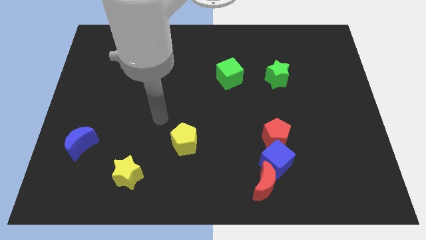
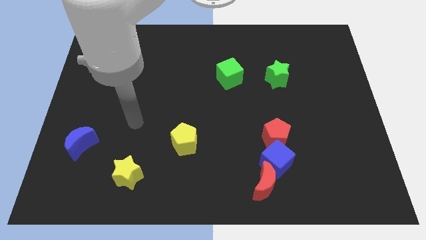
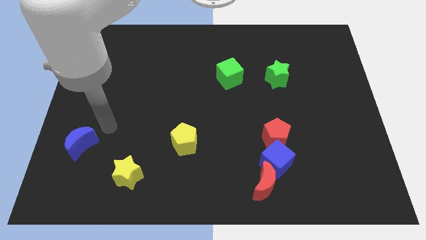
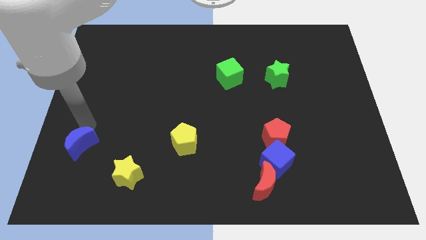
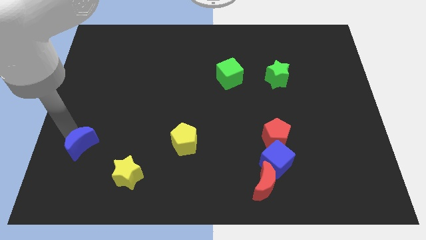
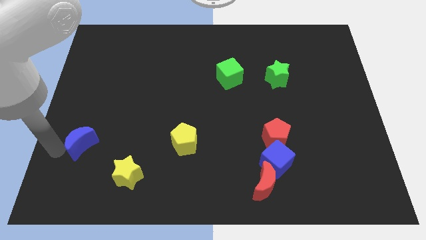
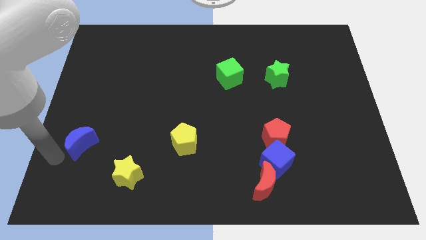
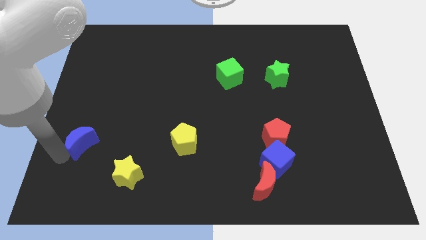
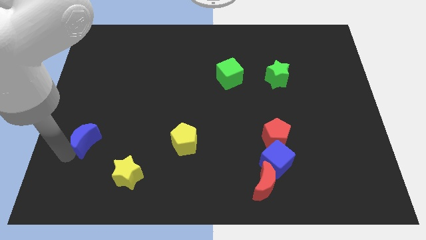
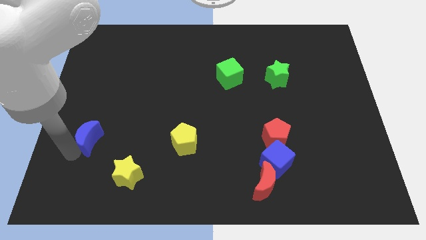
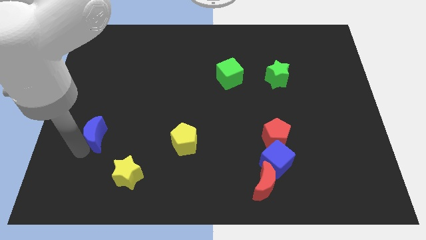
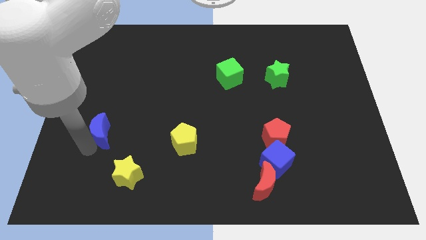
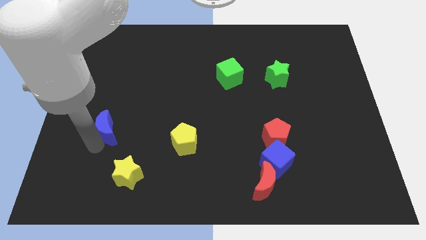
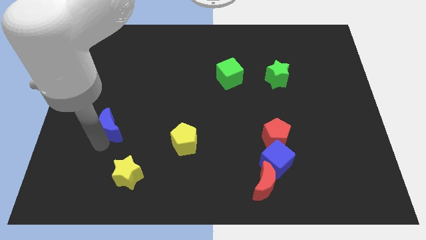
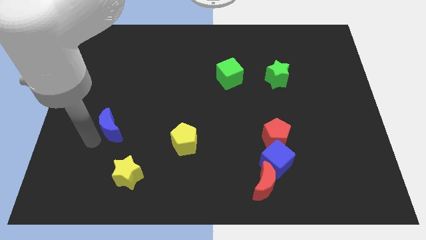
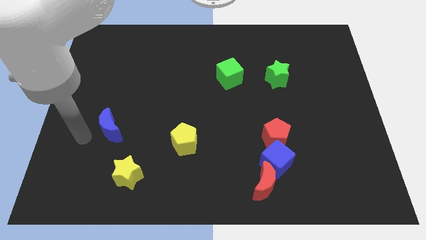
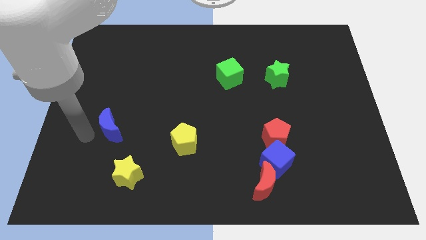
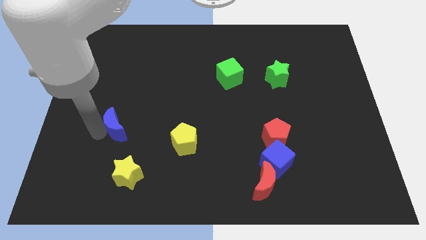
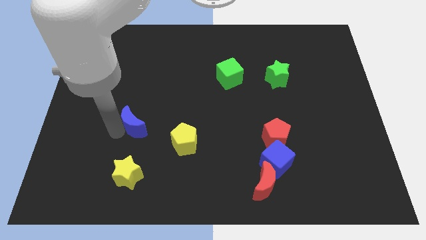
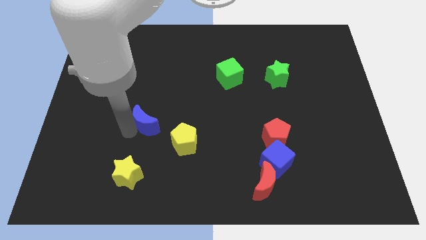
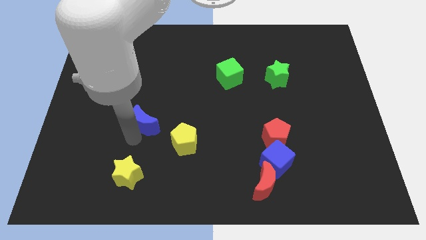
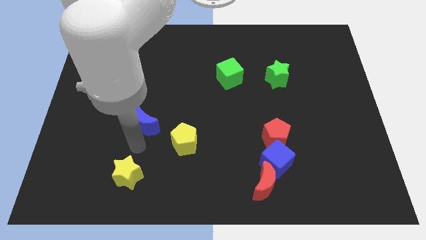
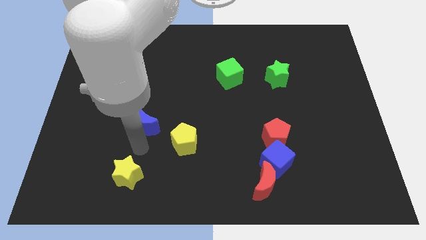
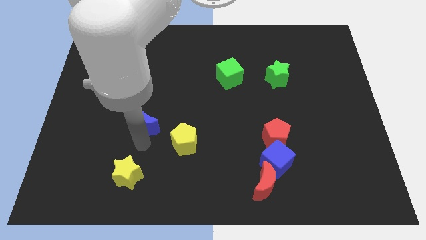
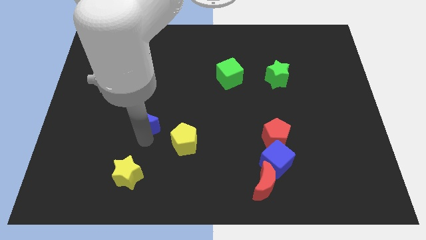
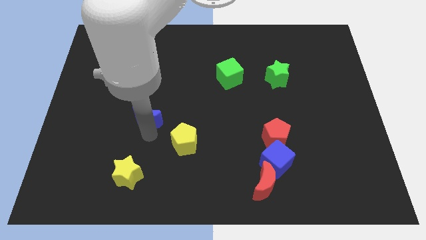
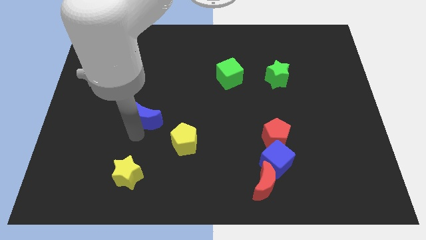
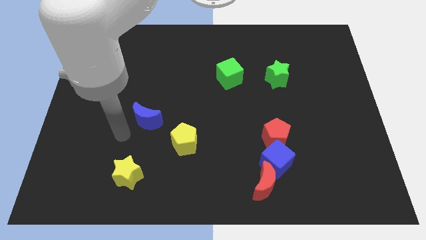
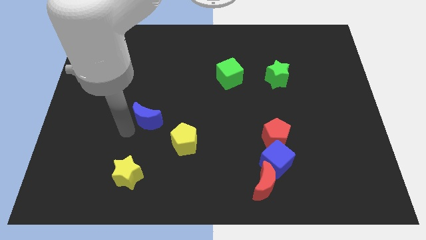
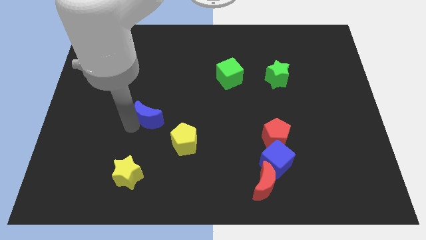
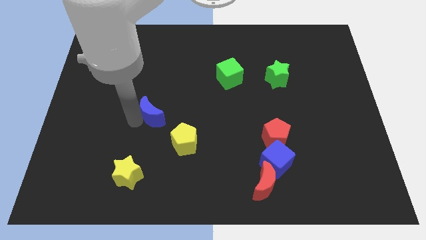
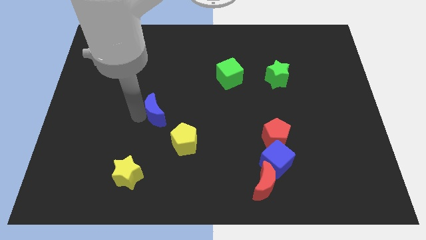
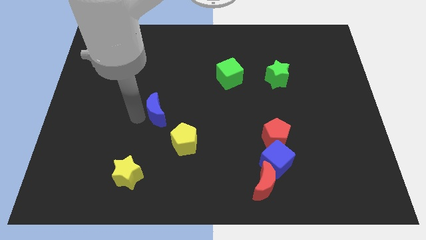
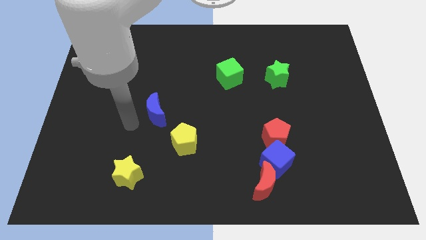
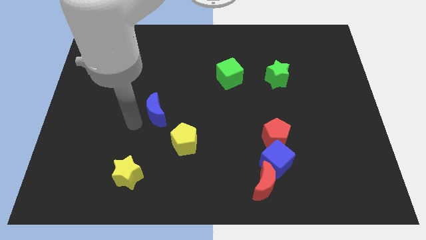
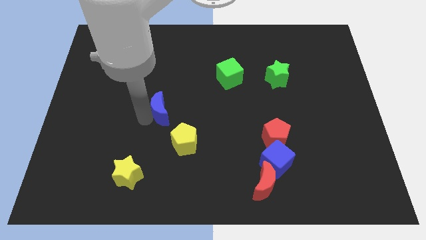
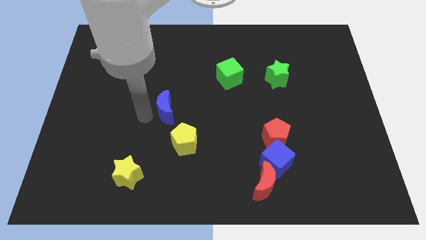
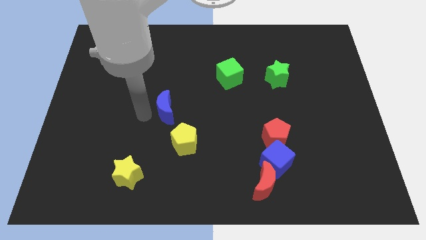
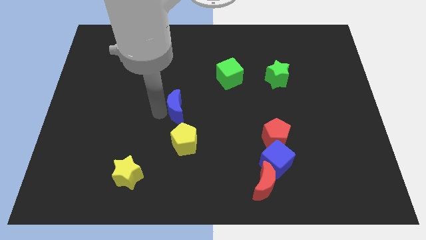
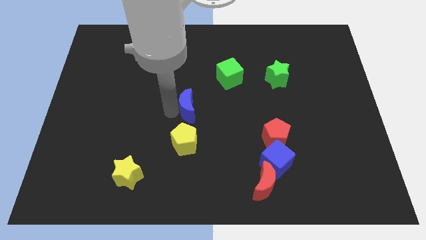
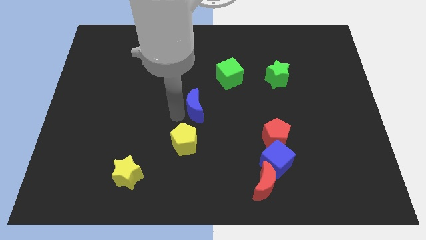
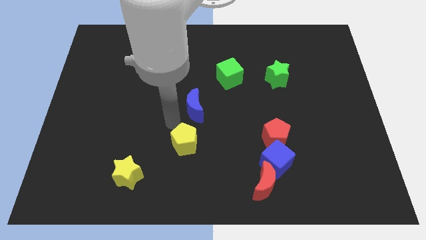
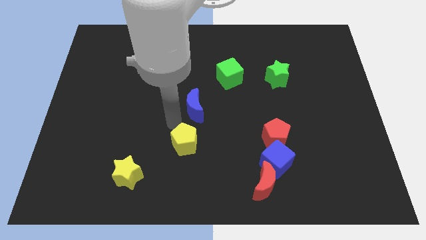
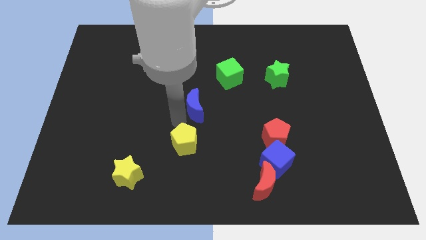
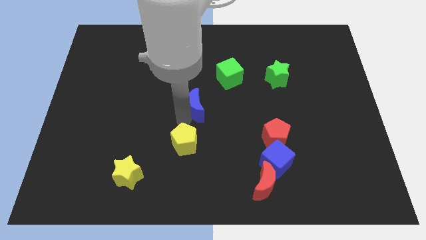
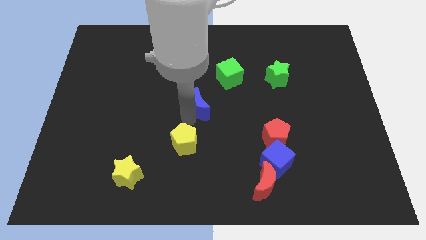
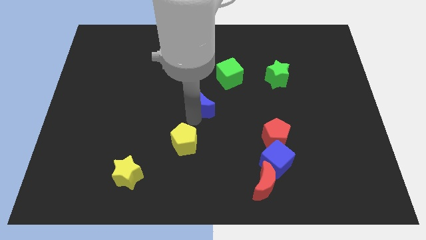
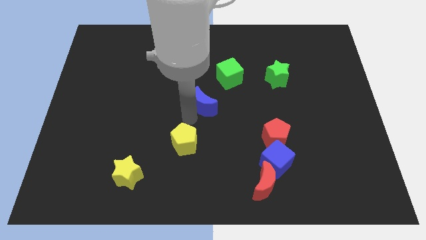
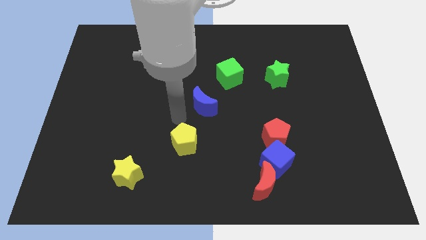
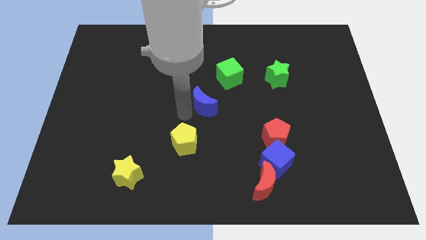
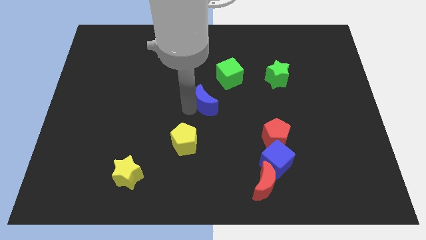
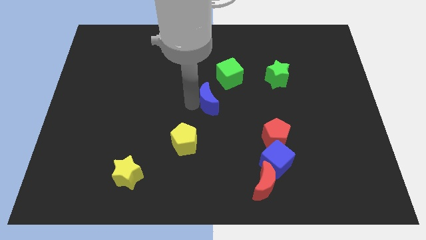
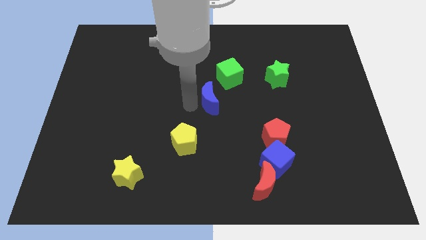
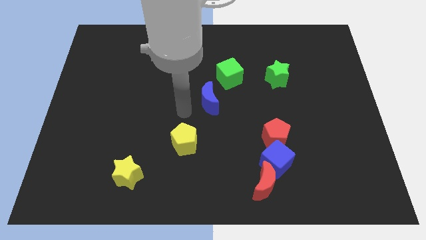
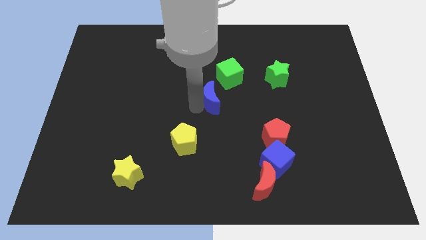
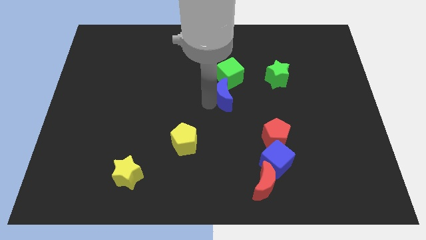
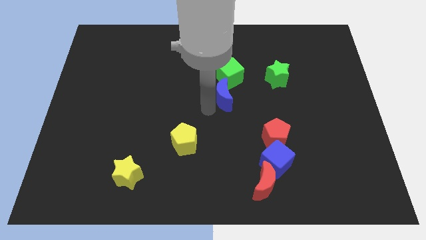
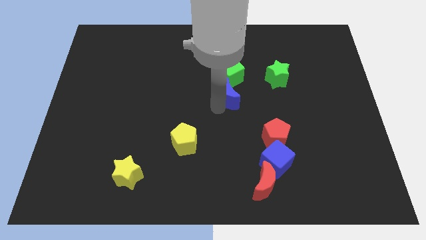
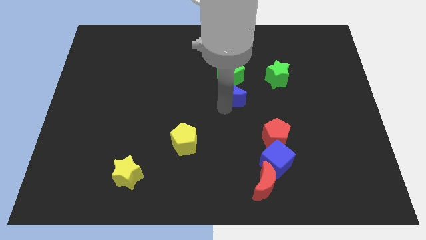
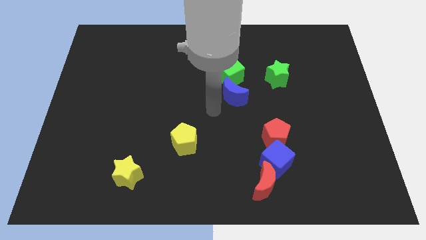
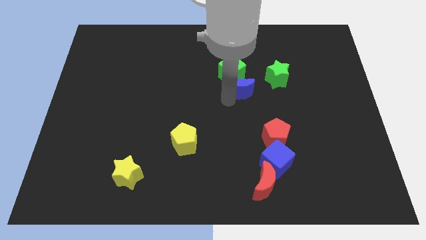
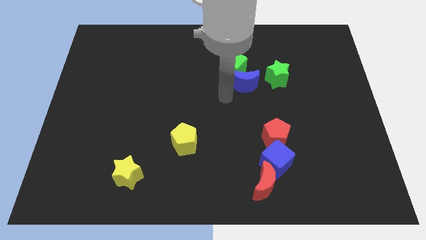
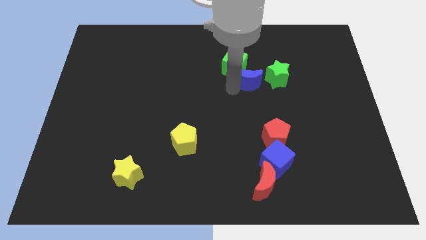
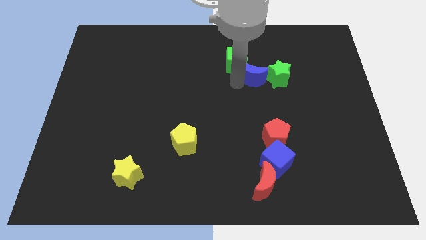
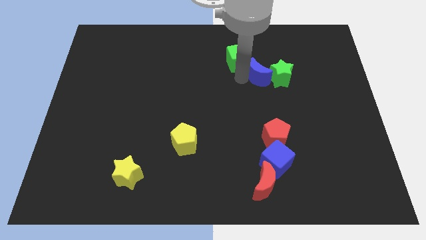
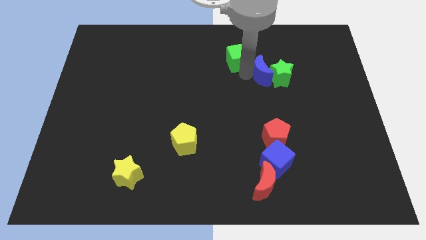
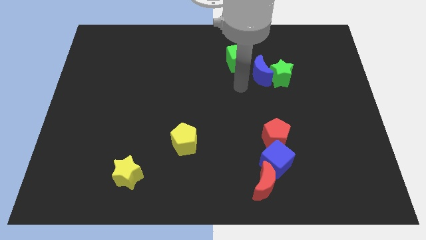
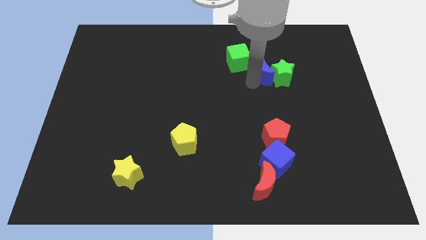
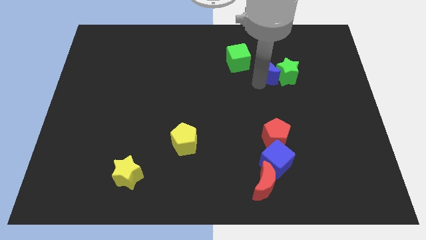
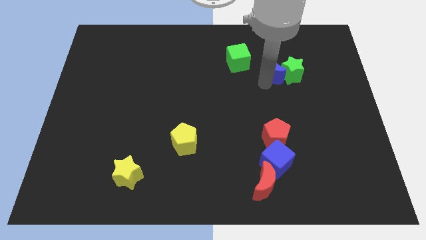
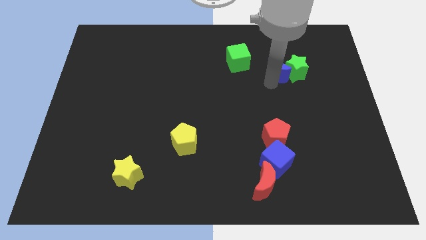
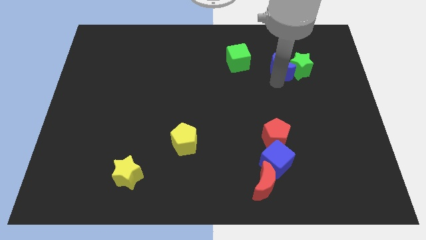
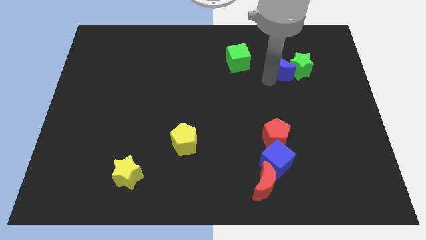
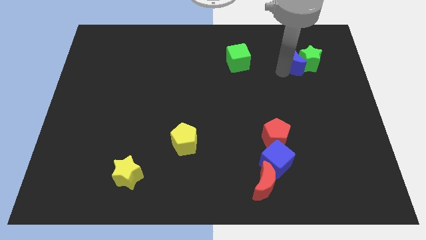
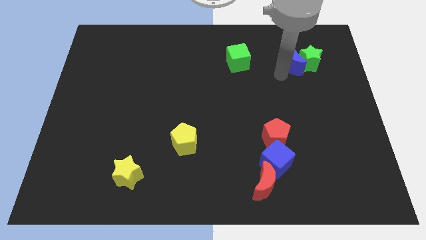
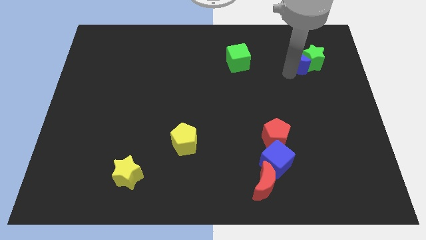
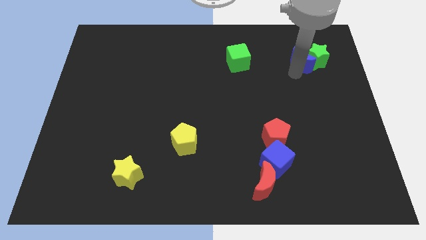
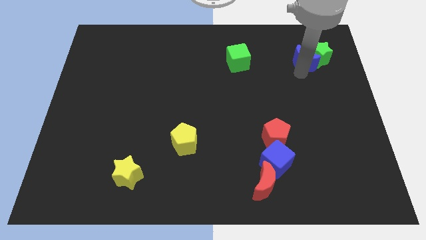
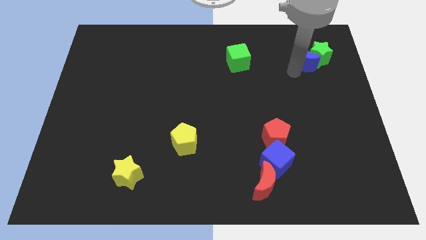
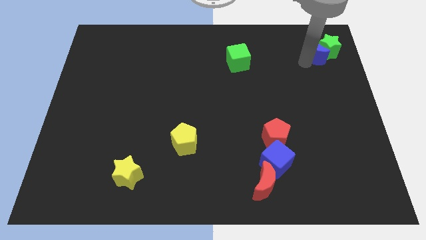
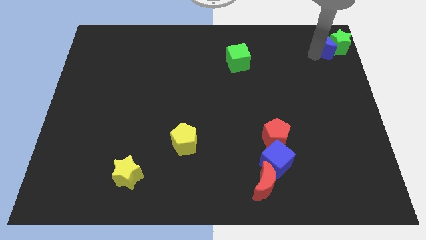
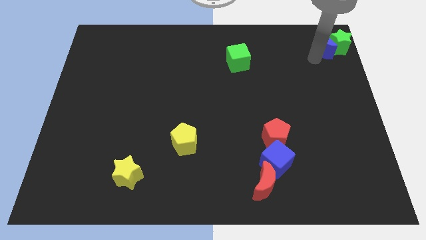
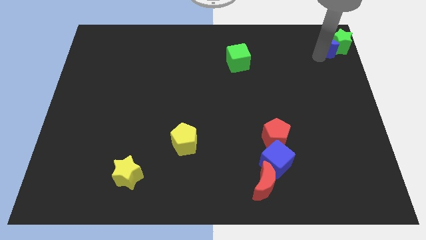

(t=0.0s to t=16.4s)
slide the blue moon to the top right corner

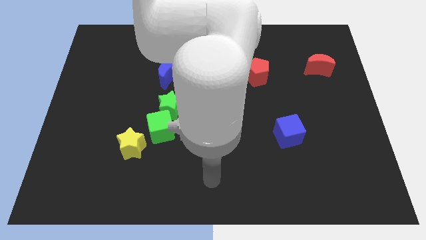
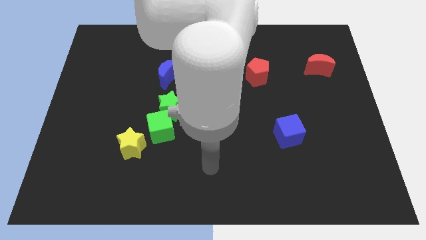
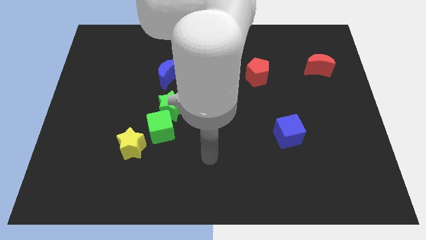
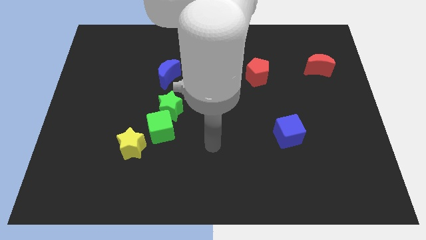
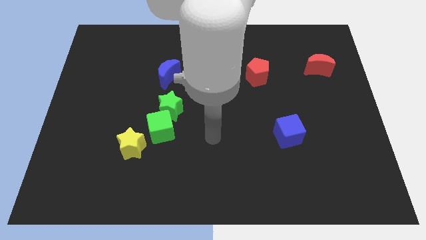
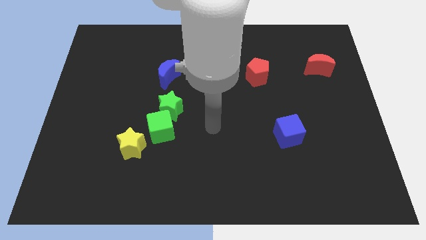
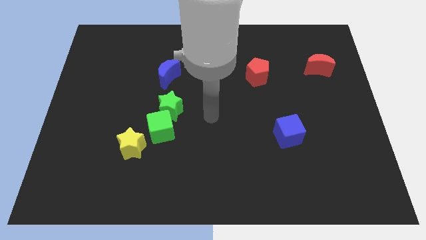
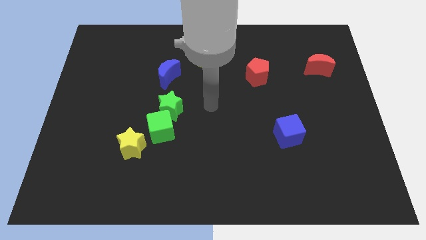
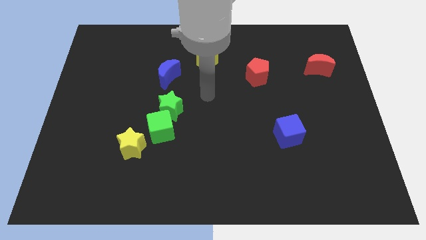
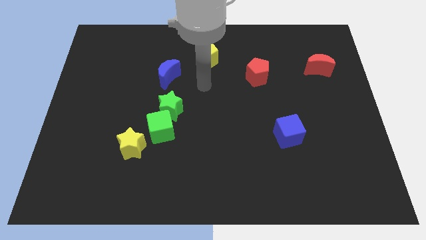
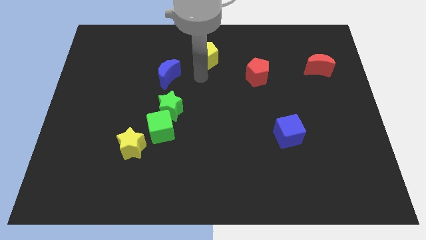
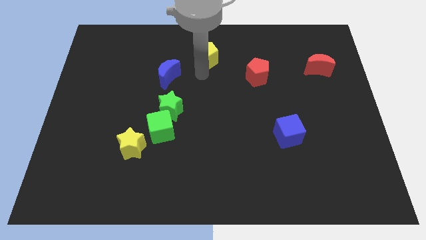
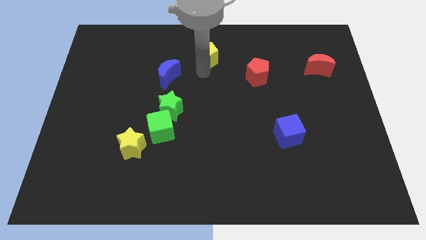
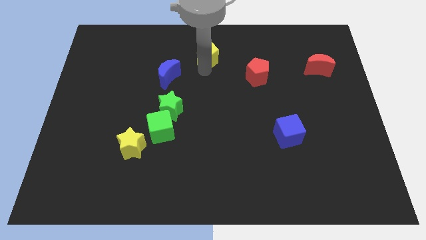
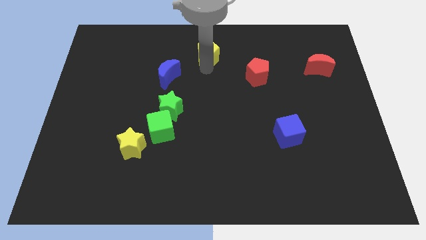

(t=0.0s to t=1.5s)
put the yellow pentagon to the top
